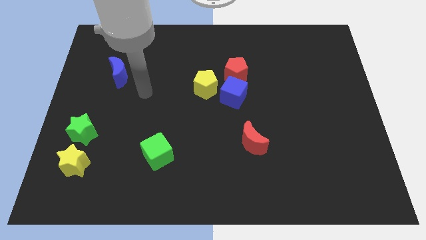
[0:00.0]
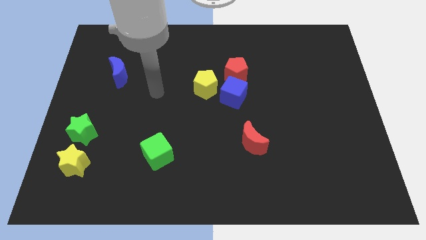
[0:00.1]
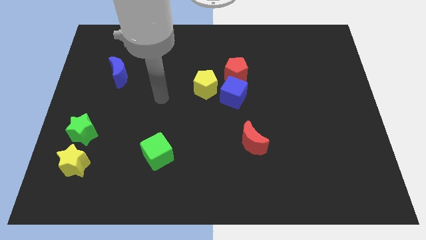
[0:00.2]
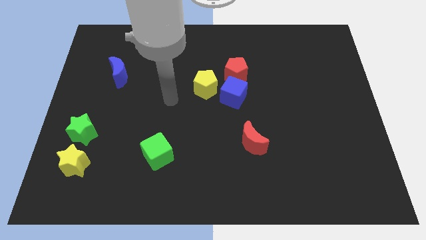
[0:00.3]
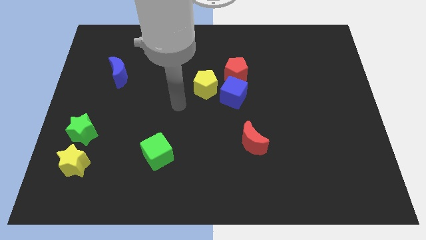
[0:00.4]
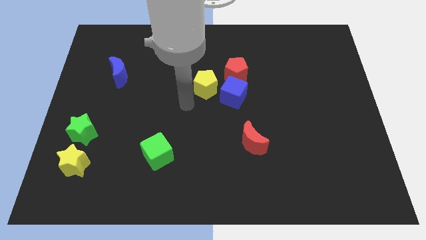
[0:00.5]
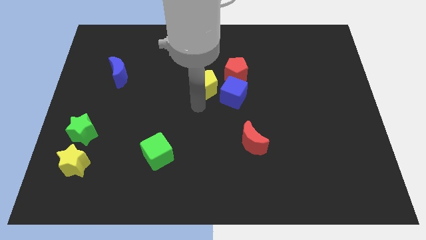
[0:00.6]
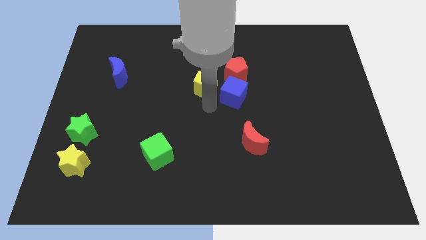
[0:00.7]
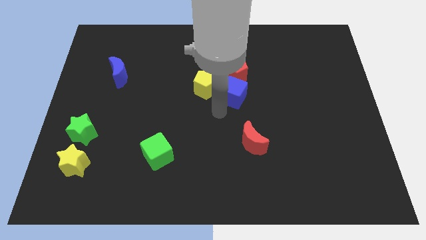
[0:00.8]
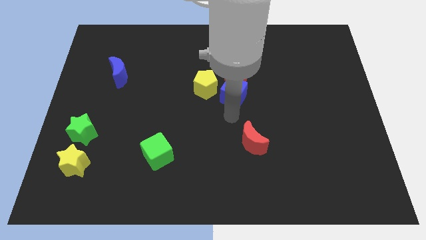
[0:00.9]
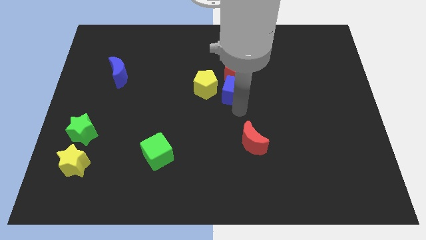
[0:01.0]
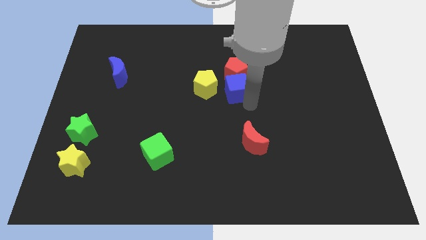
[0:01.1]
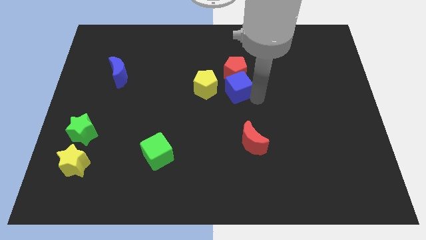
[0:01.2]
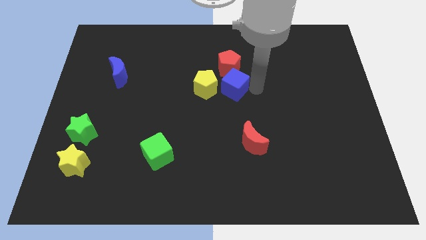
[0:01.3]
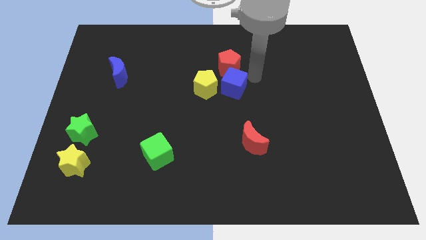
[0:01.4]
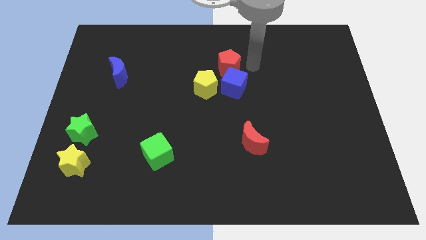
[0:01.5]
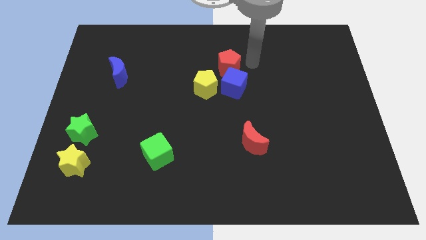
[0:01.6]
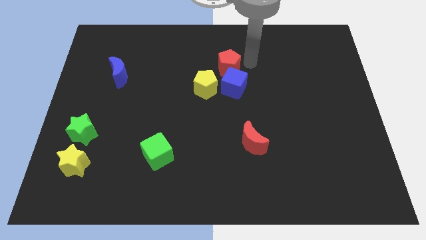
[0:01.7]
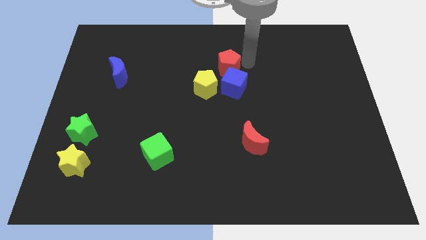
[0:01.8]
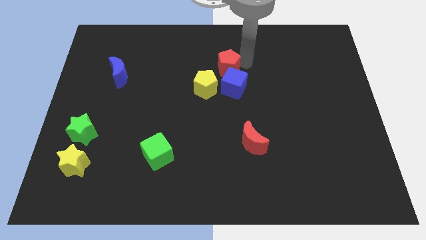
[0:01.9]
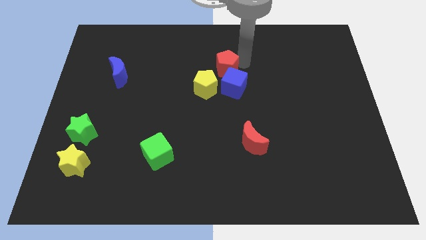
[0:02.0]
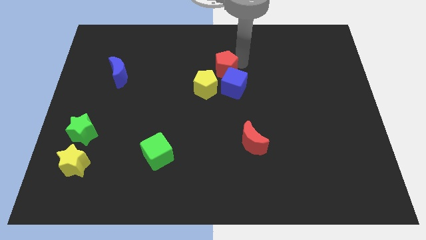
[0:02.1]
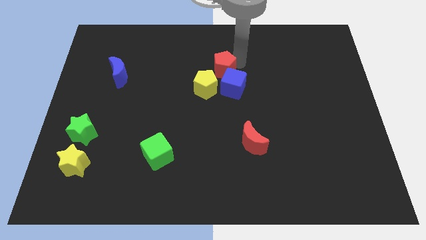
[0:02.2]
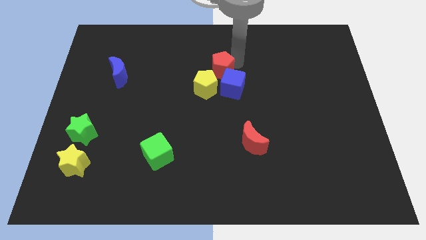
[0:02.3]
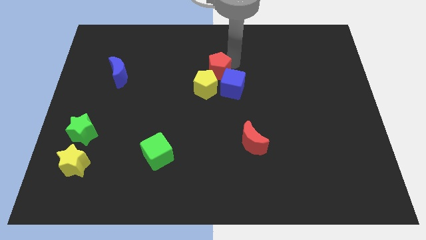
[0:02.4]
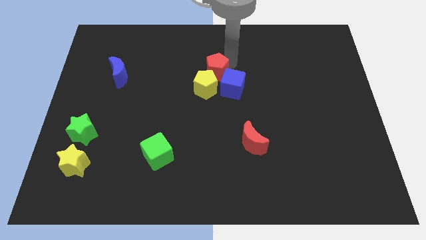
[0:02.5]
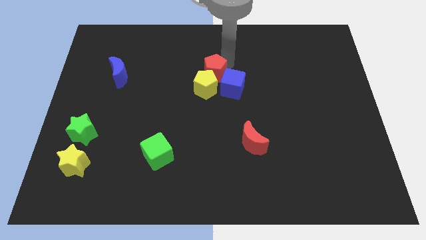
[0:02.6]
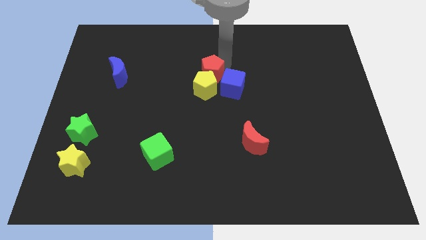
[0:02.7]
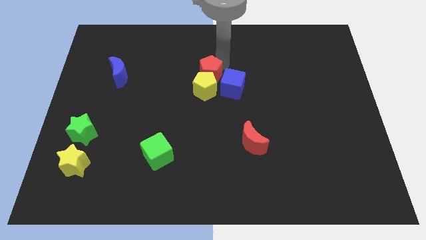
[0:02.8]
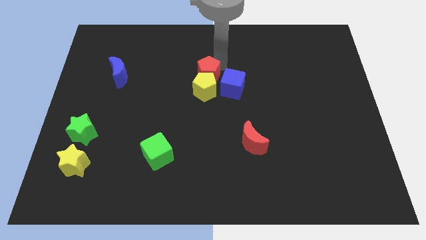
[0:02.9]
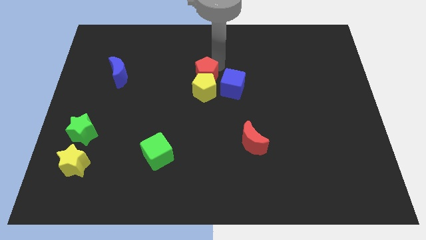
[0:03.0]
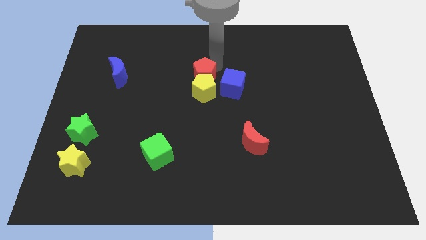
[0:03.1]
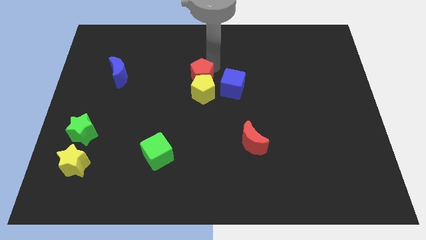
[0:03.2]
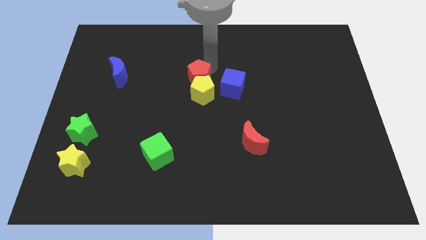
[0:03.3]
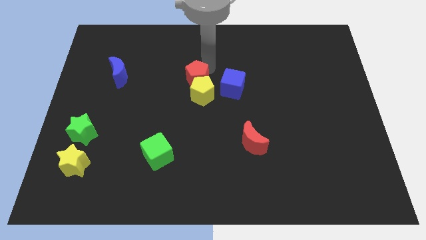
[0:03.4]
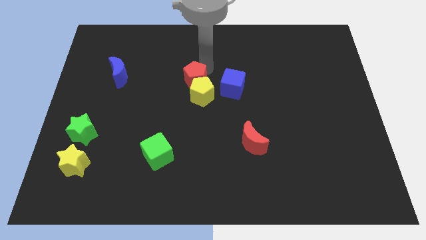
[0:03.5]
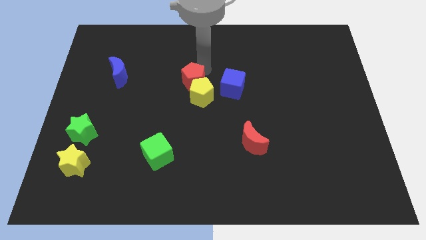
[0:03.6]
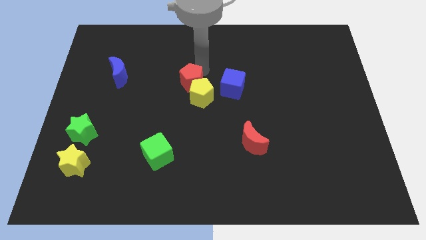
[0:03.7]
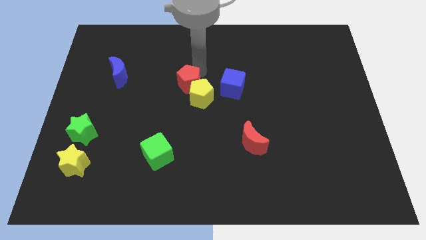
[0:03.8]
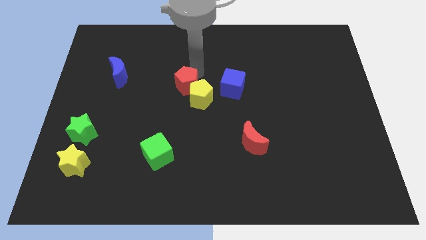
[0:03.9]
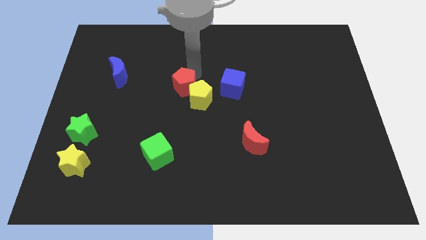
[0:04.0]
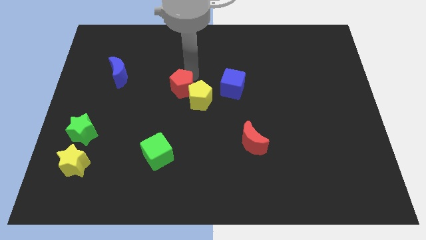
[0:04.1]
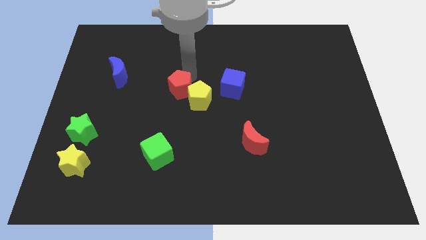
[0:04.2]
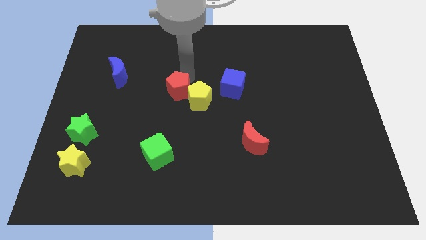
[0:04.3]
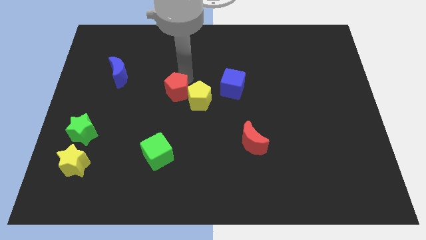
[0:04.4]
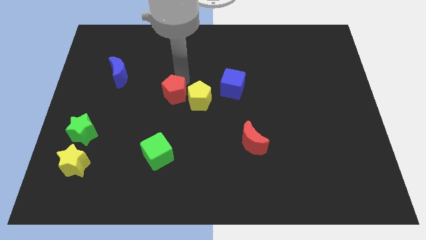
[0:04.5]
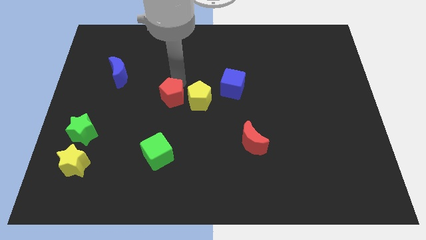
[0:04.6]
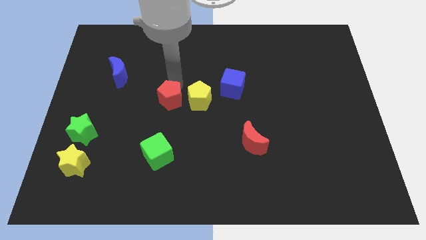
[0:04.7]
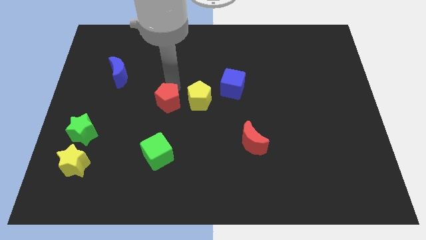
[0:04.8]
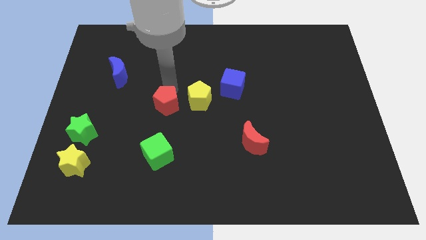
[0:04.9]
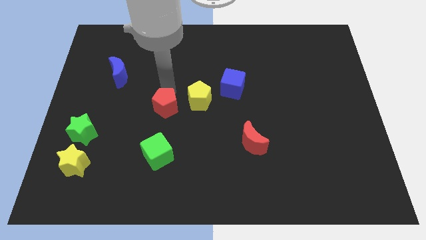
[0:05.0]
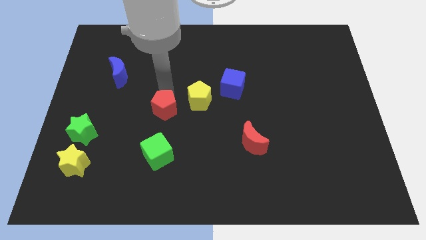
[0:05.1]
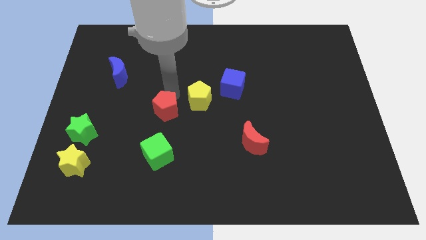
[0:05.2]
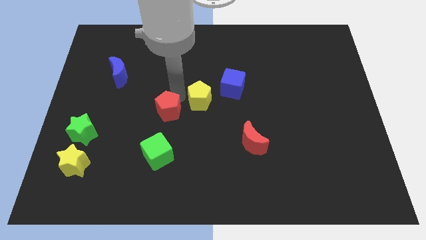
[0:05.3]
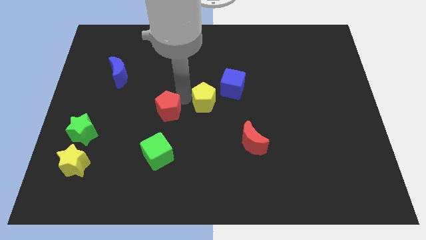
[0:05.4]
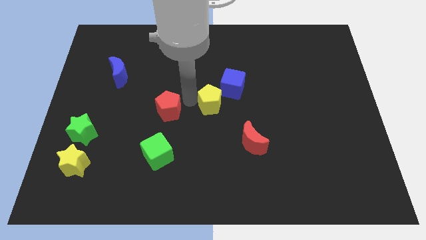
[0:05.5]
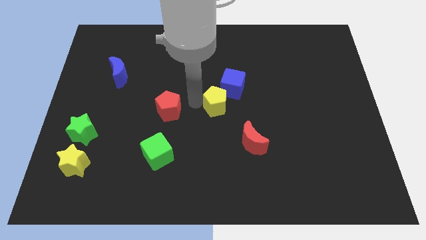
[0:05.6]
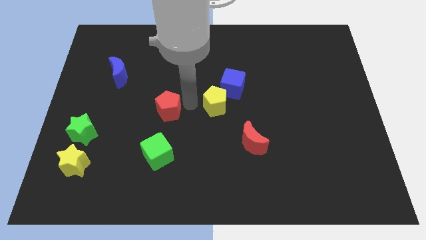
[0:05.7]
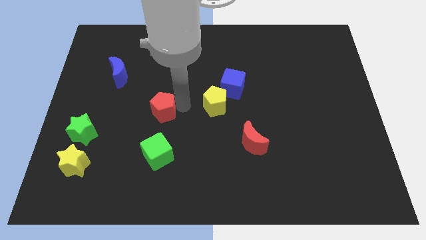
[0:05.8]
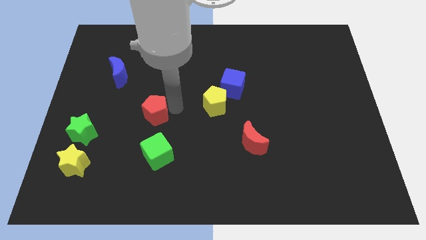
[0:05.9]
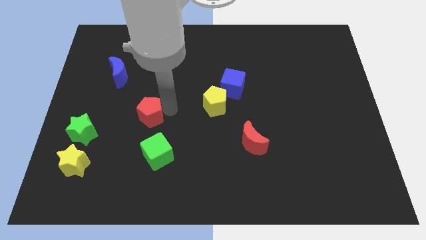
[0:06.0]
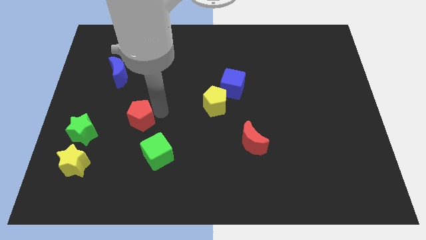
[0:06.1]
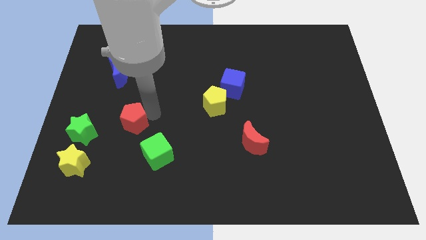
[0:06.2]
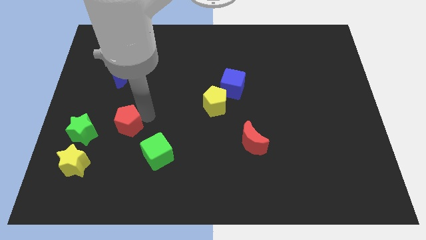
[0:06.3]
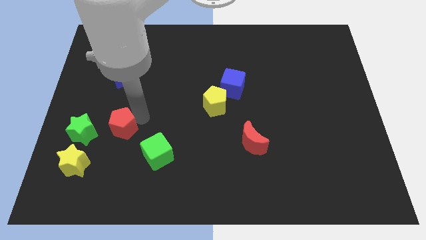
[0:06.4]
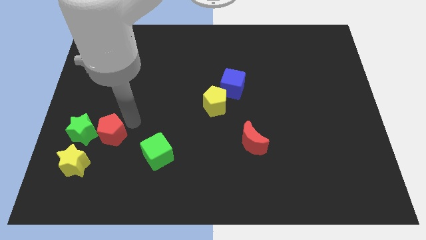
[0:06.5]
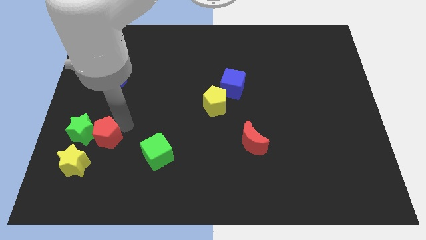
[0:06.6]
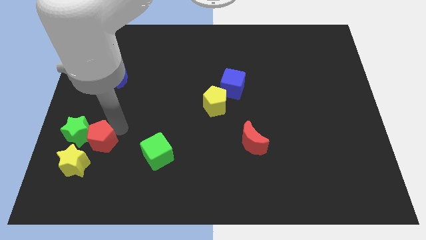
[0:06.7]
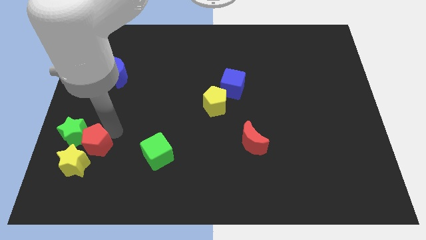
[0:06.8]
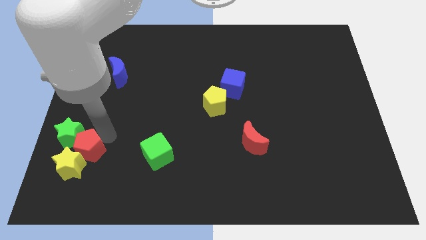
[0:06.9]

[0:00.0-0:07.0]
move the red pentagon close to the yellow star
